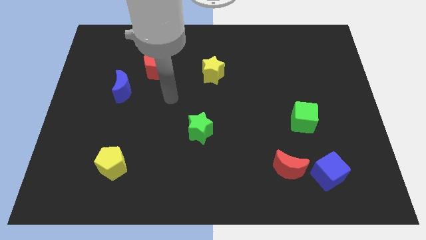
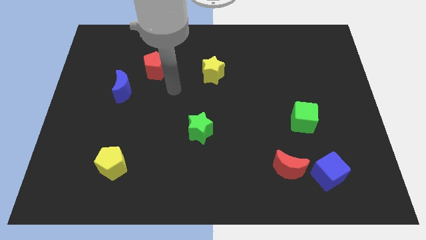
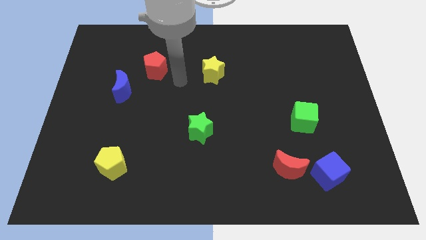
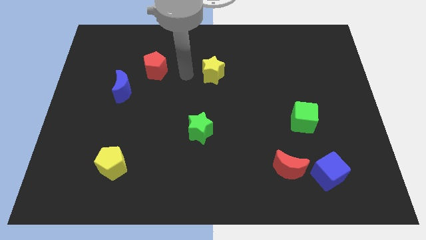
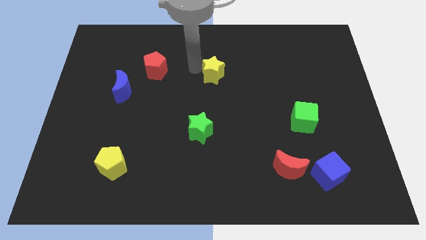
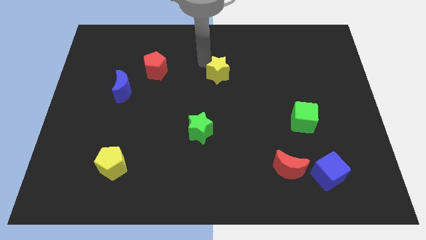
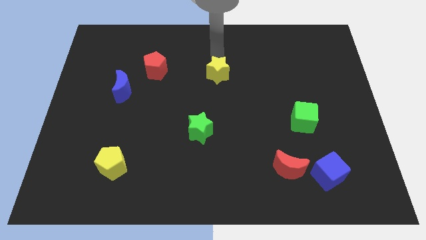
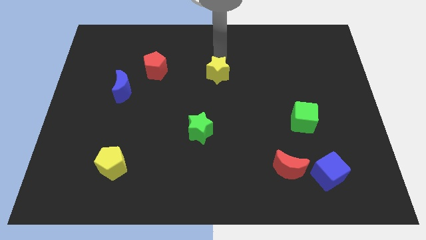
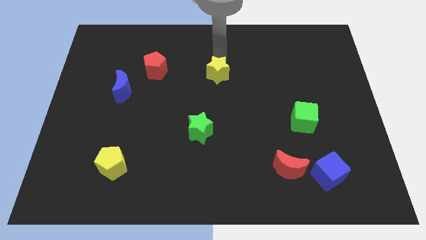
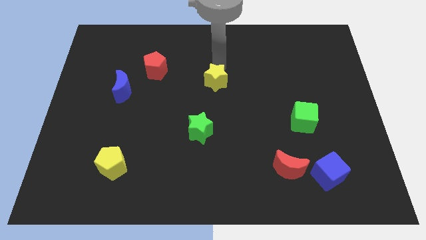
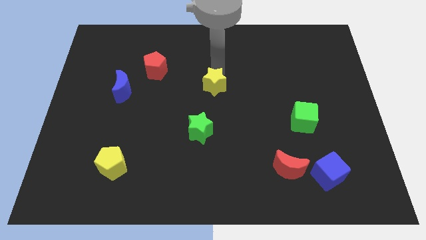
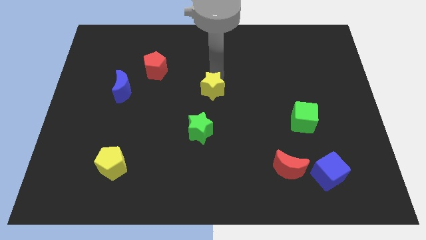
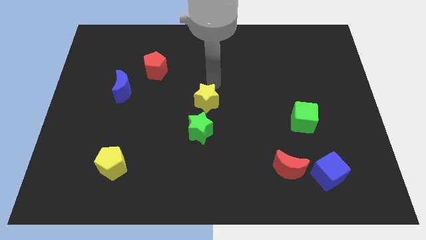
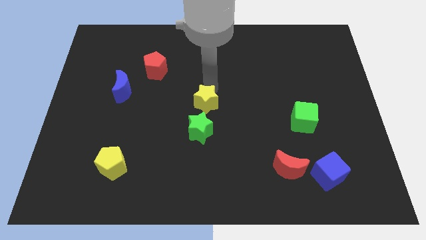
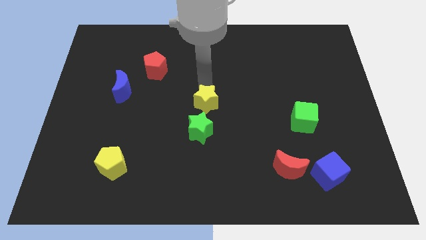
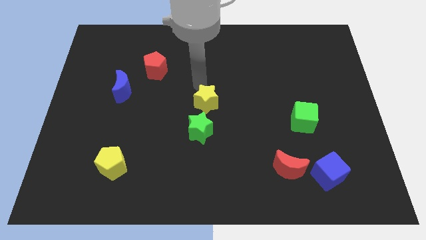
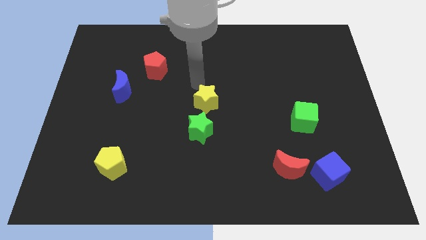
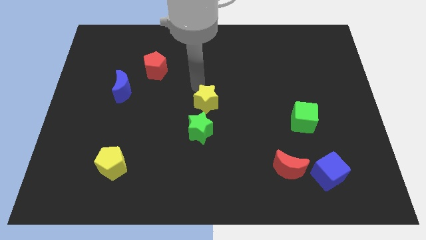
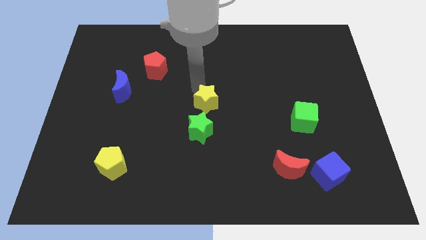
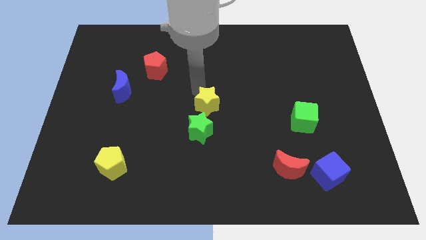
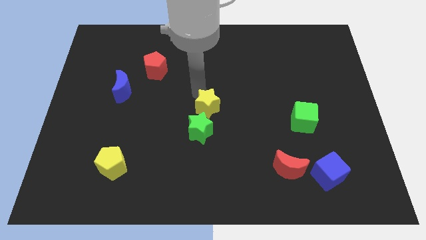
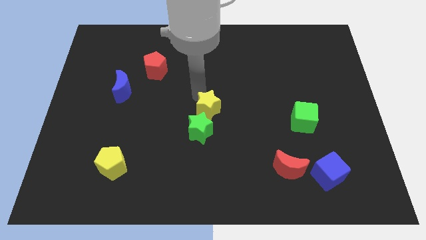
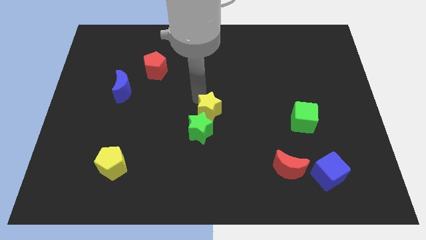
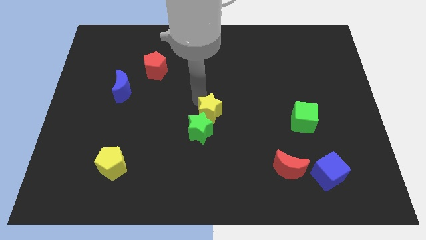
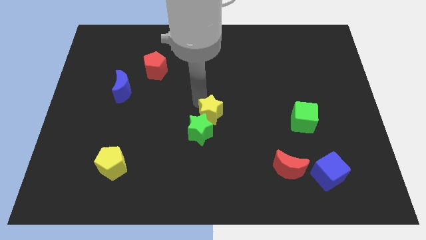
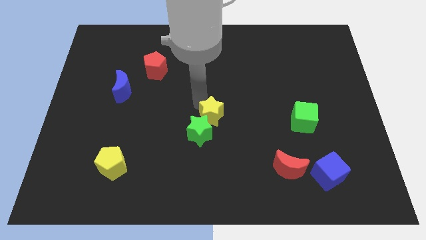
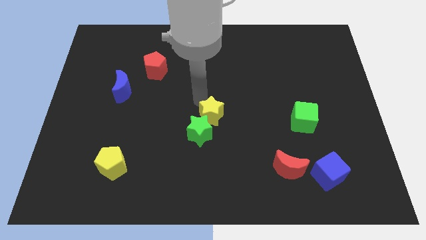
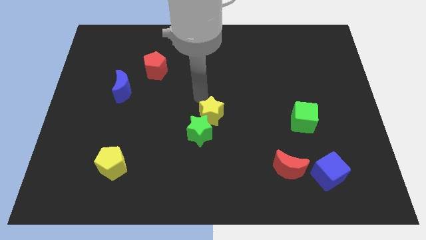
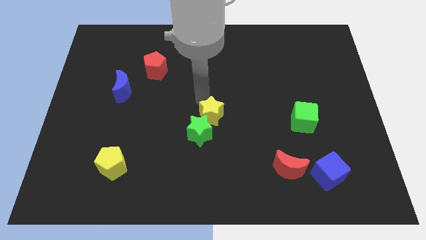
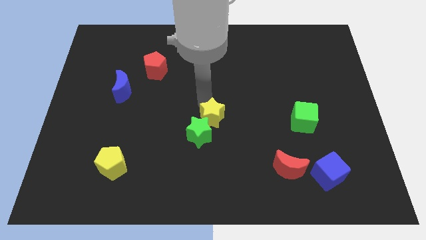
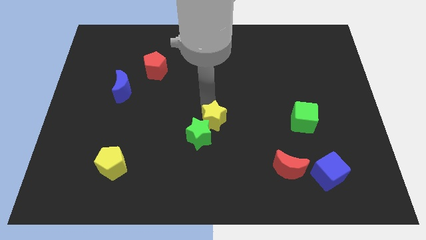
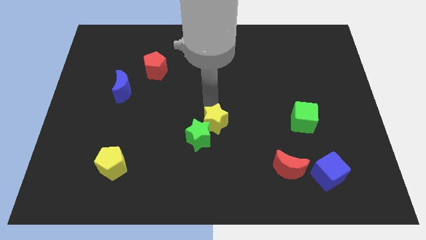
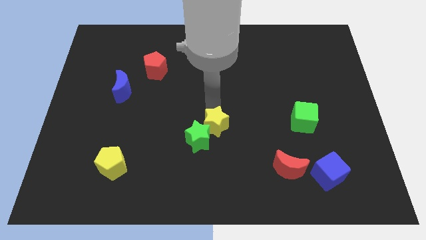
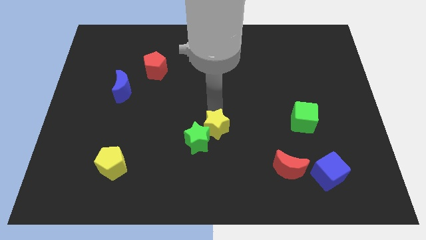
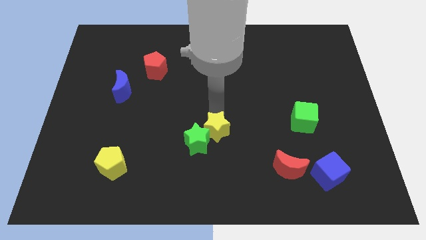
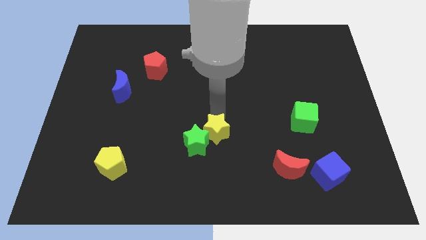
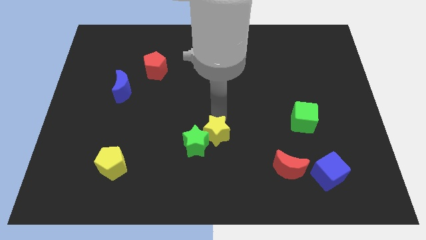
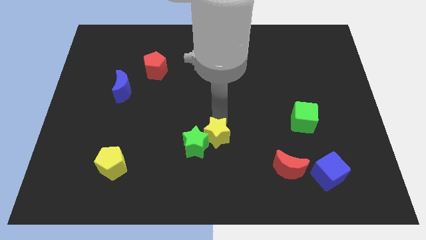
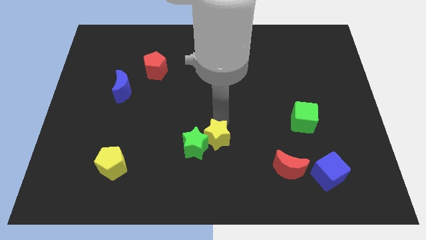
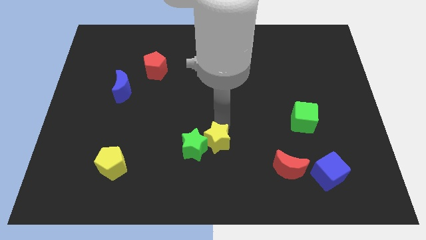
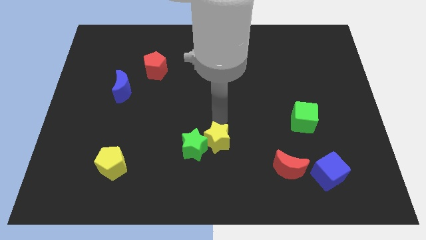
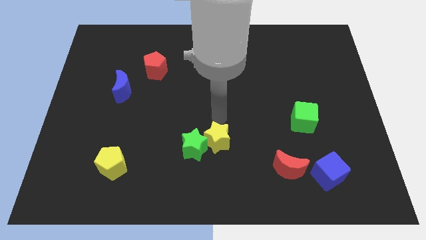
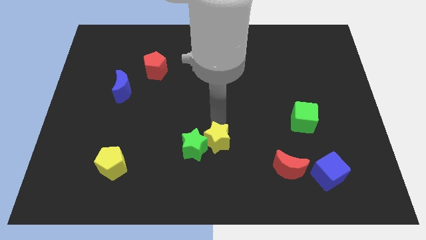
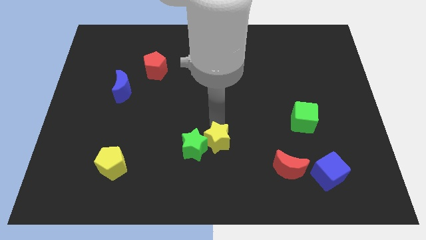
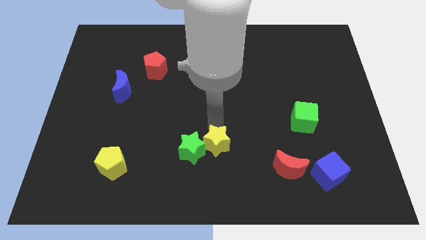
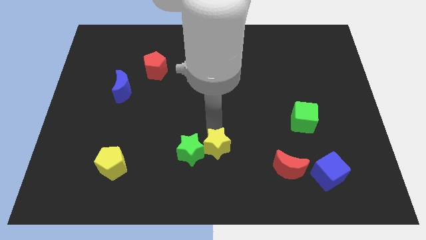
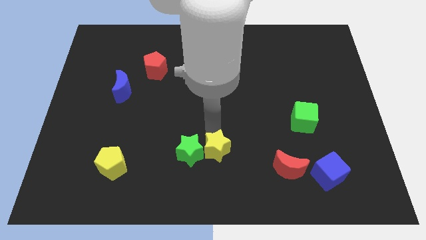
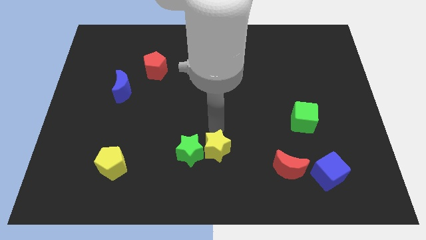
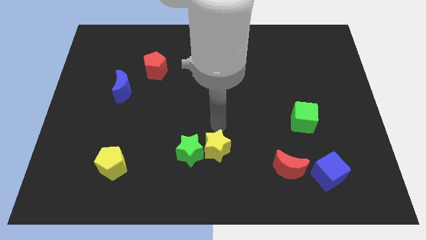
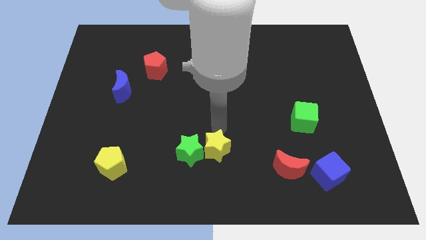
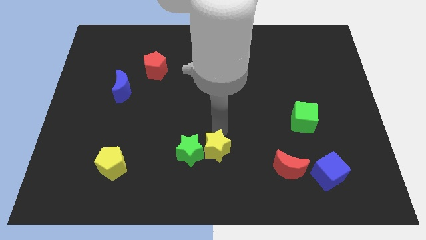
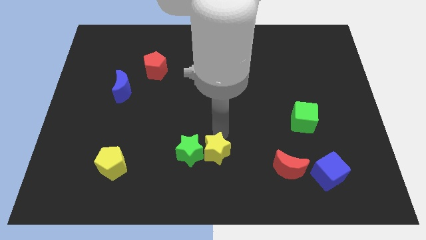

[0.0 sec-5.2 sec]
put the yellow star to the bottom

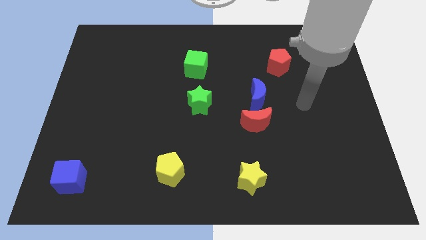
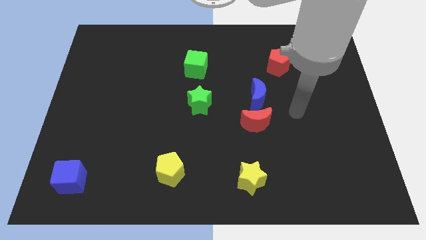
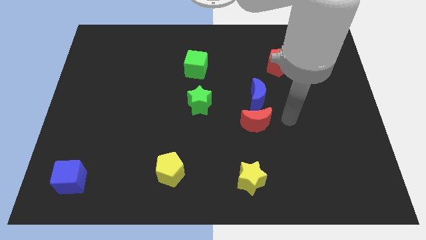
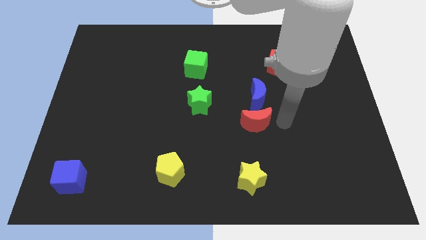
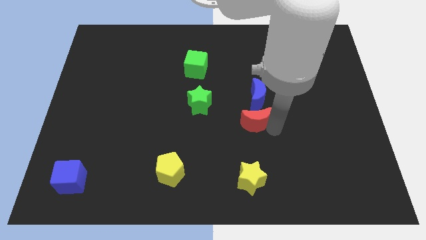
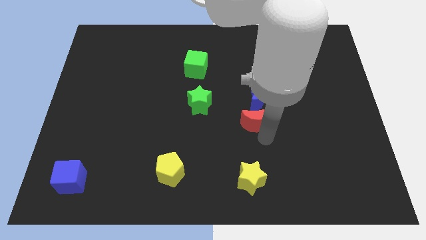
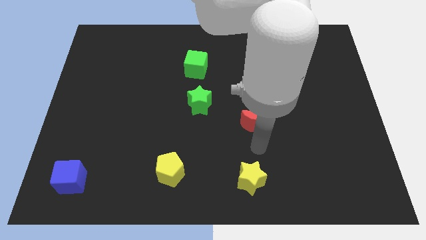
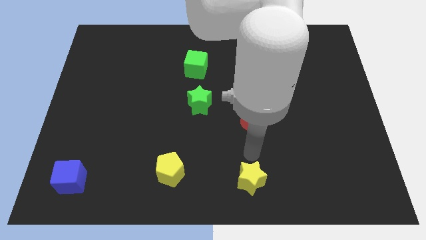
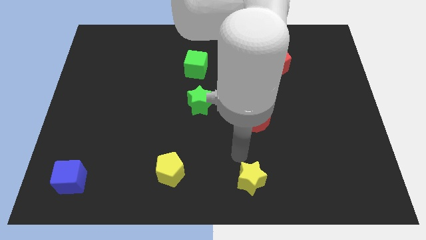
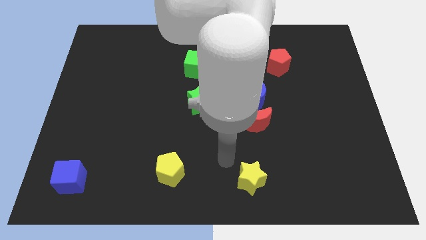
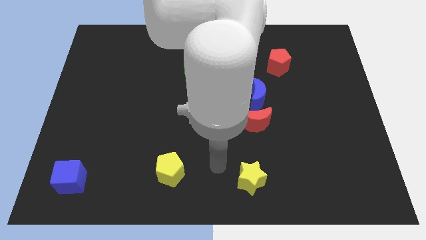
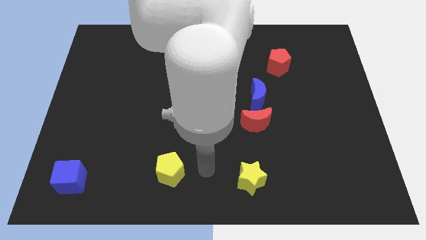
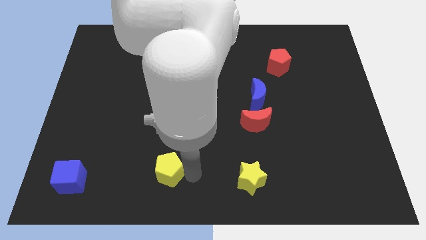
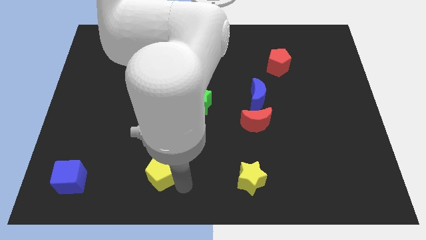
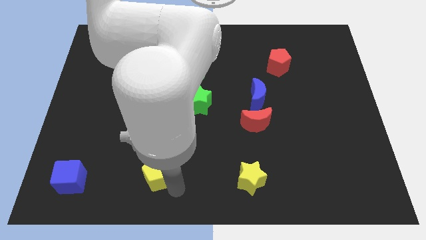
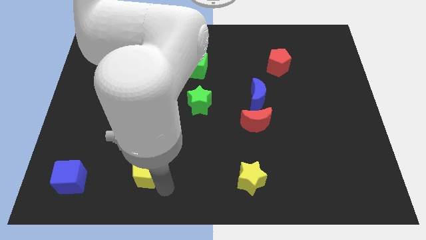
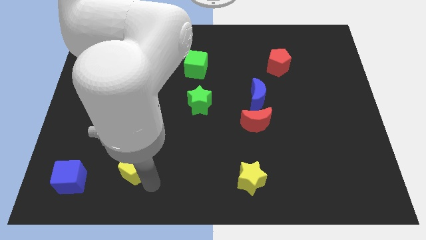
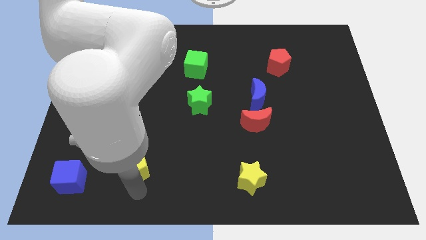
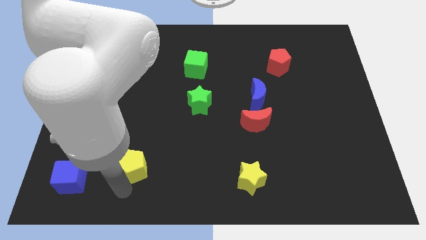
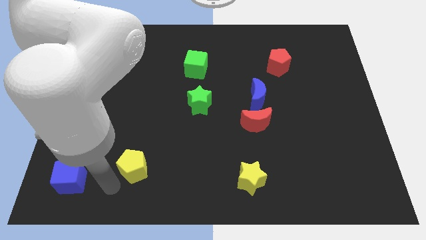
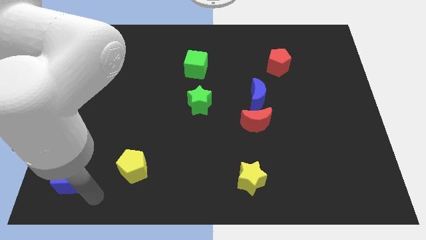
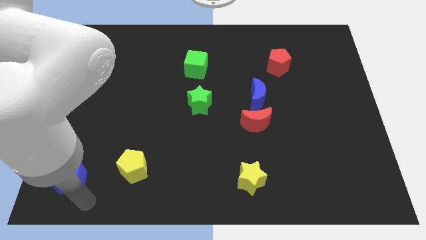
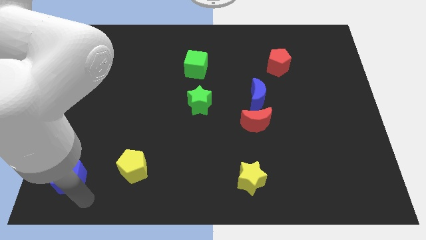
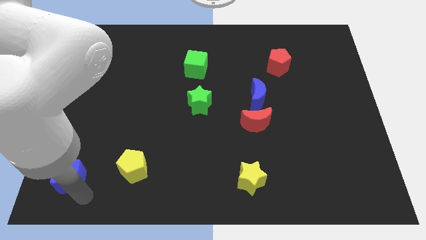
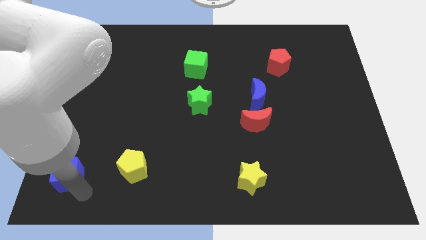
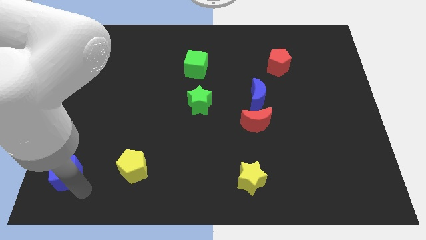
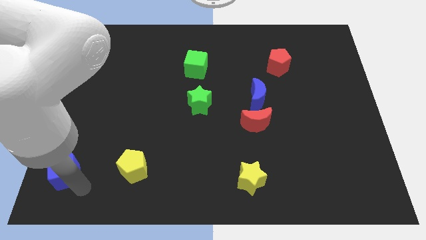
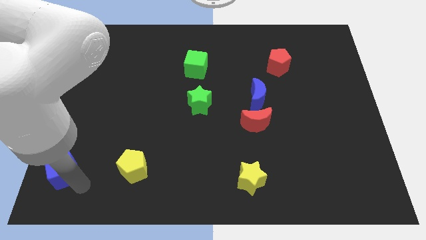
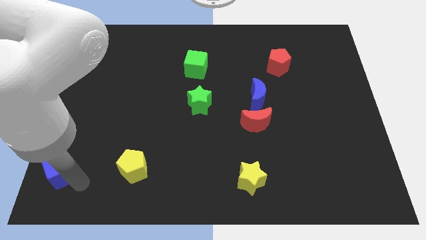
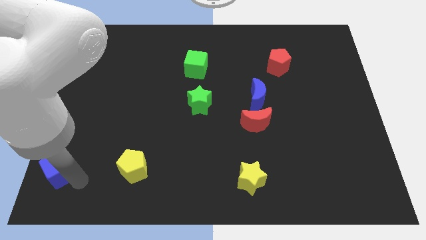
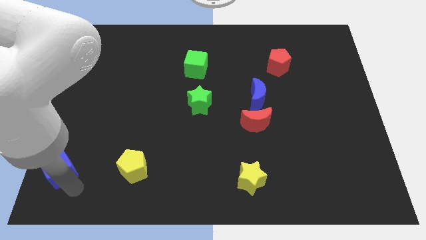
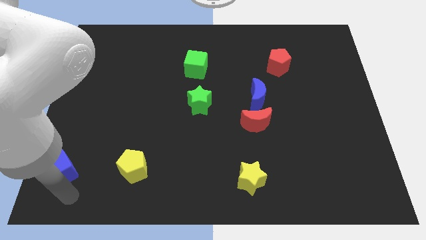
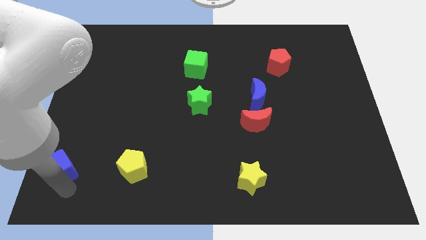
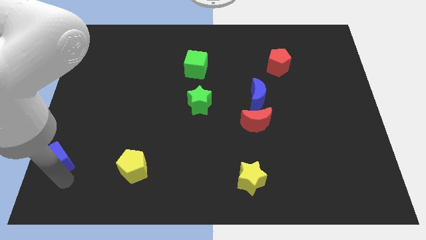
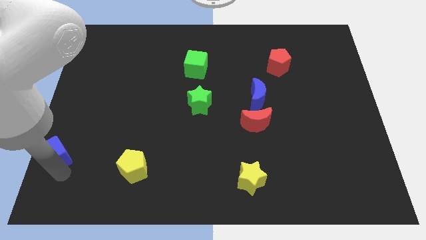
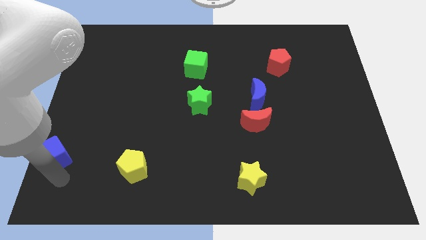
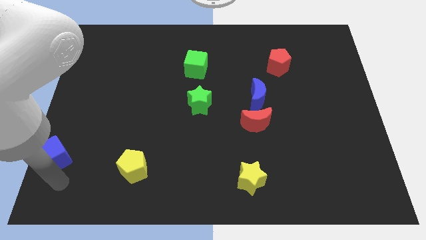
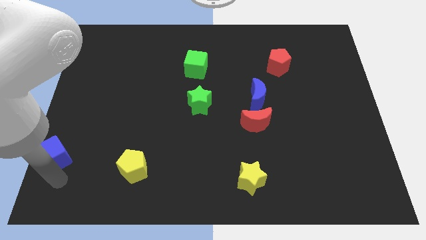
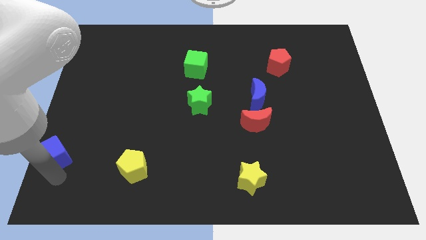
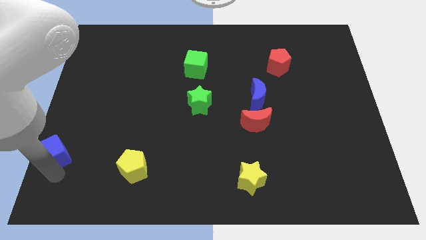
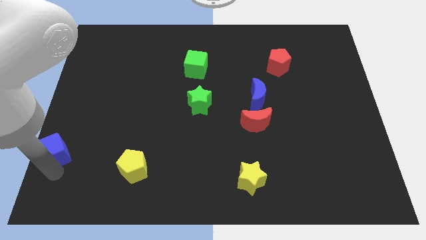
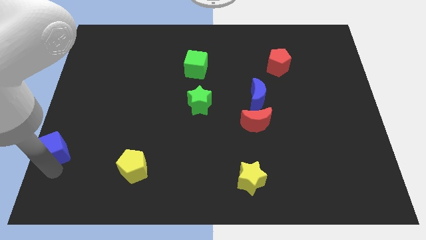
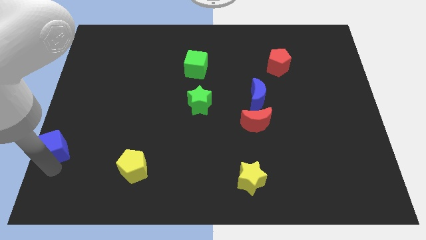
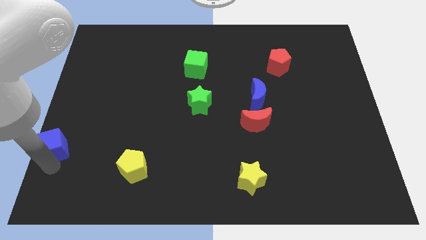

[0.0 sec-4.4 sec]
move the blue cube to the left side of the board
